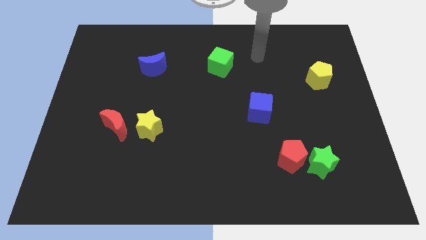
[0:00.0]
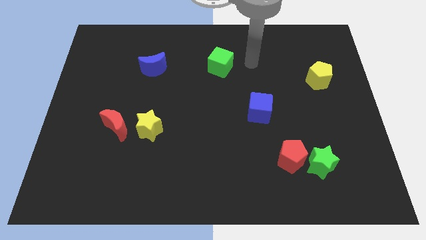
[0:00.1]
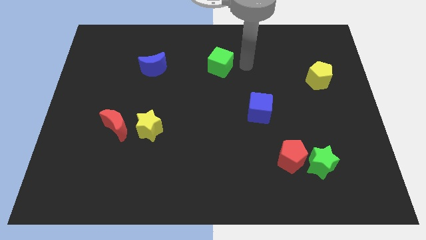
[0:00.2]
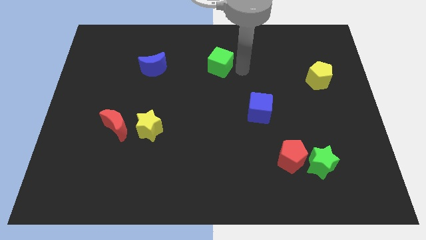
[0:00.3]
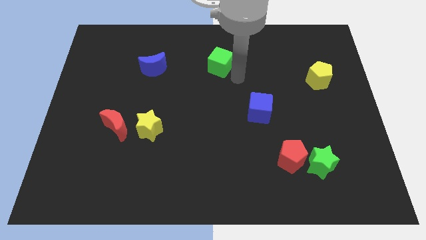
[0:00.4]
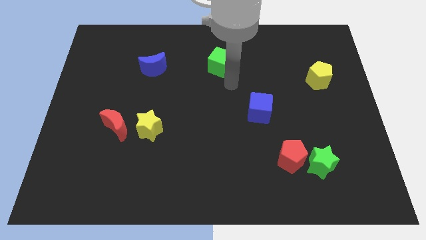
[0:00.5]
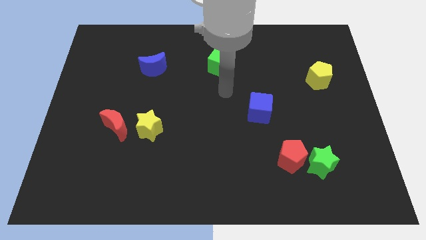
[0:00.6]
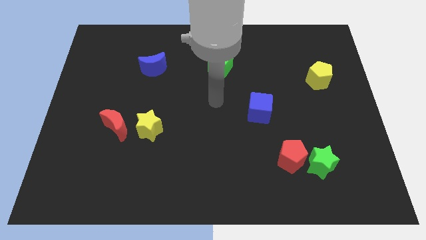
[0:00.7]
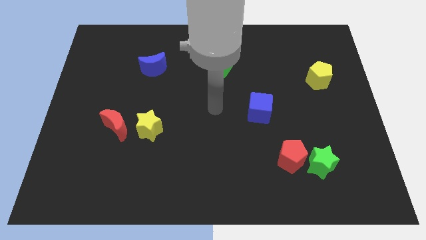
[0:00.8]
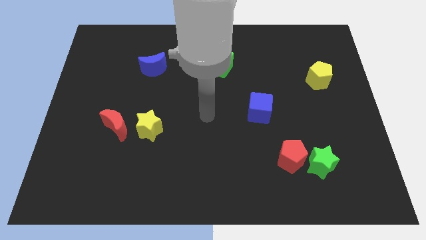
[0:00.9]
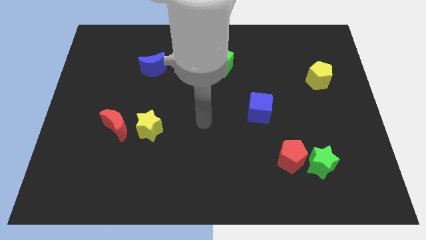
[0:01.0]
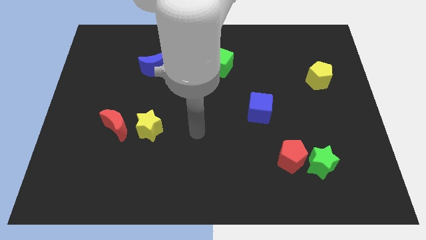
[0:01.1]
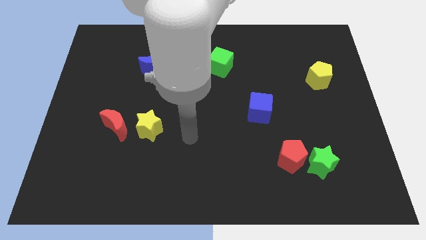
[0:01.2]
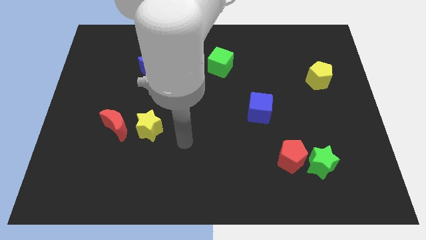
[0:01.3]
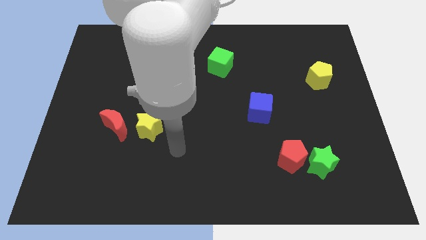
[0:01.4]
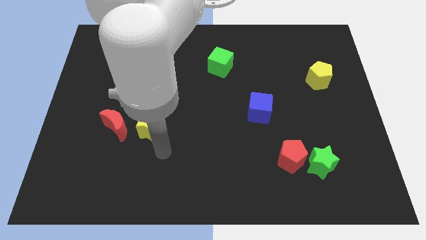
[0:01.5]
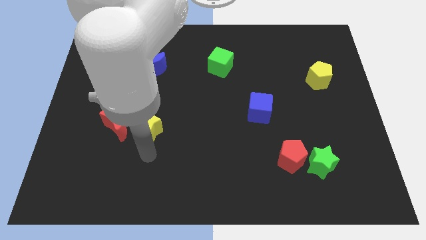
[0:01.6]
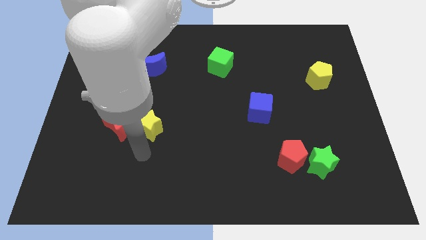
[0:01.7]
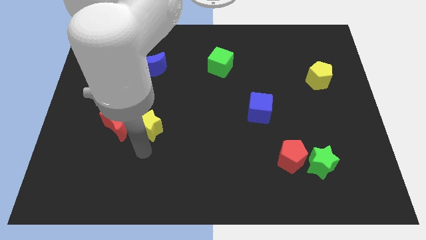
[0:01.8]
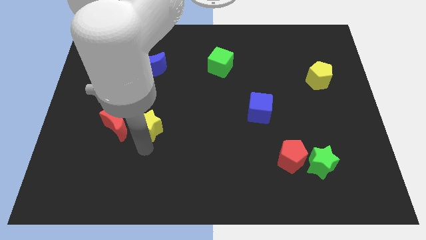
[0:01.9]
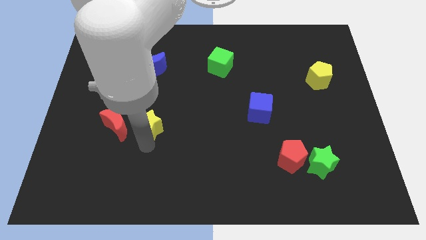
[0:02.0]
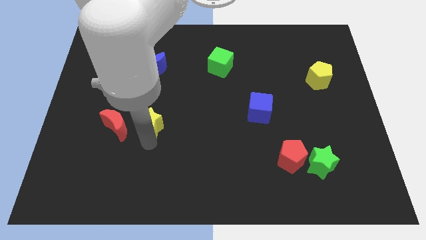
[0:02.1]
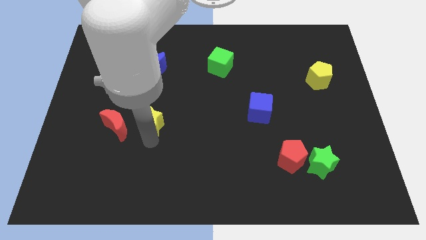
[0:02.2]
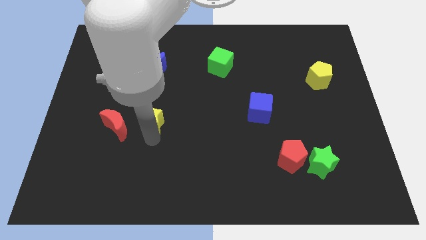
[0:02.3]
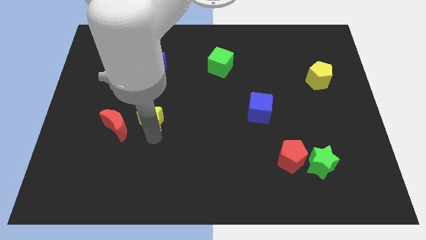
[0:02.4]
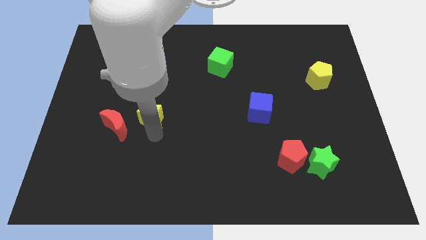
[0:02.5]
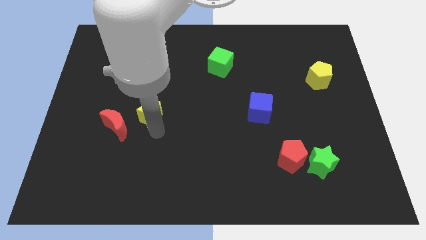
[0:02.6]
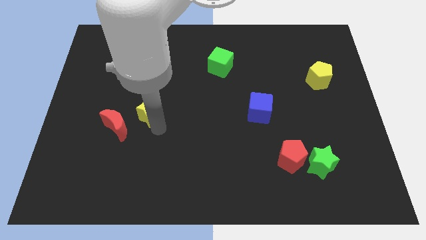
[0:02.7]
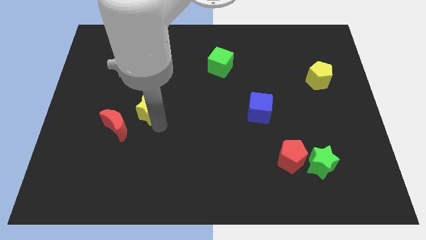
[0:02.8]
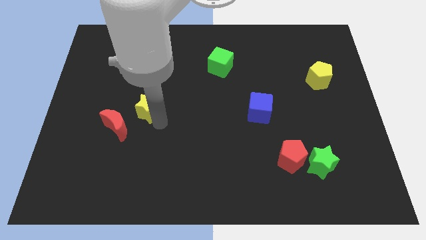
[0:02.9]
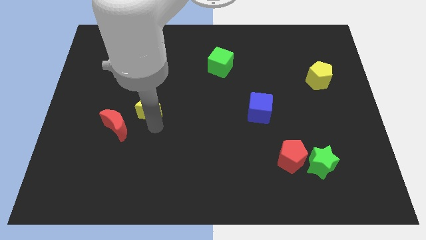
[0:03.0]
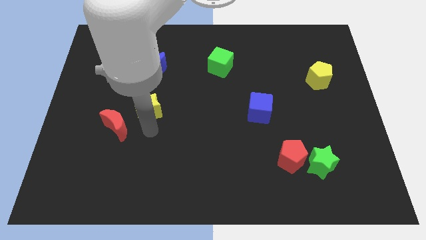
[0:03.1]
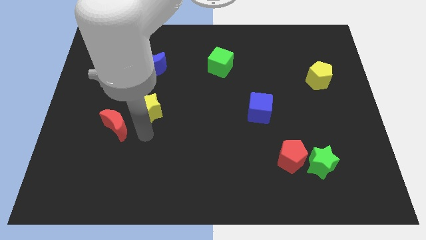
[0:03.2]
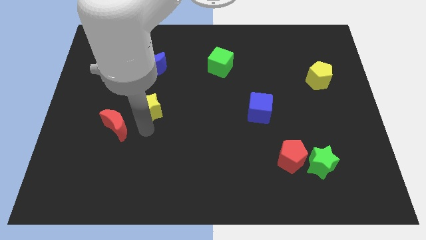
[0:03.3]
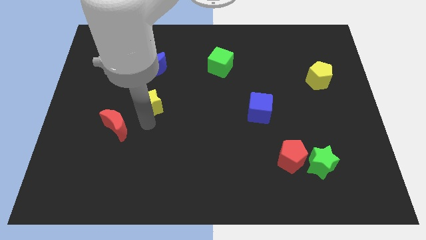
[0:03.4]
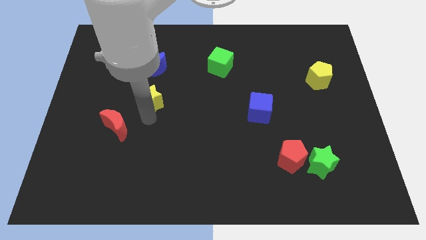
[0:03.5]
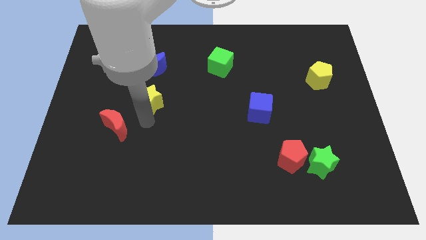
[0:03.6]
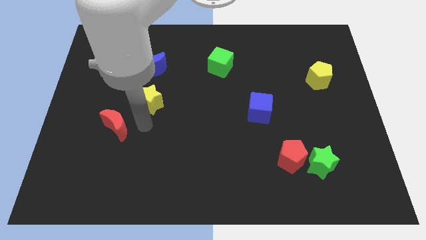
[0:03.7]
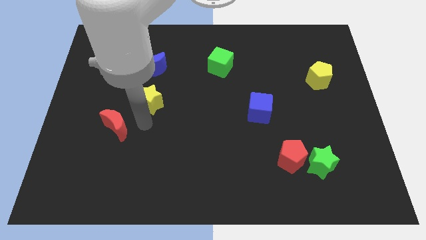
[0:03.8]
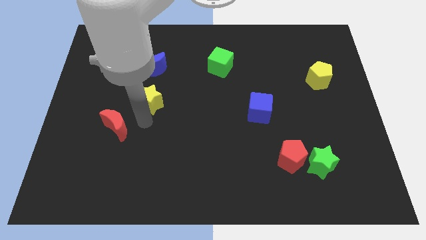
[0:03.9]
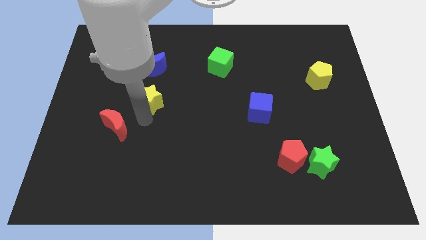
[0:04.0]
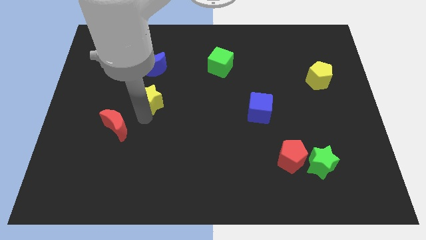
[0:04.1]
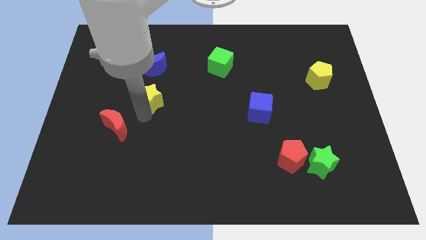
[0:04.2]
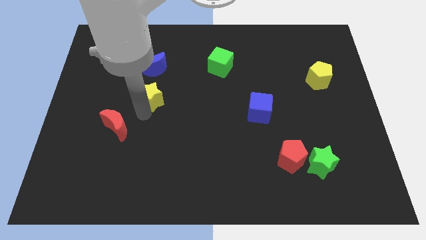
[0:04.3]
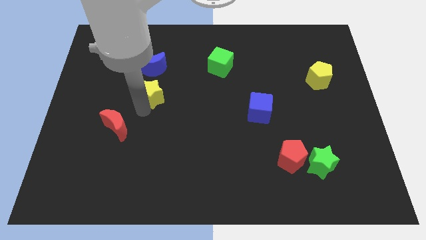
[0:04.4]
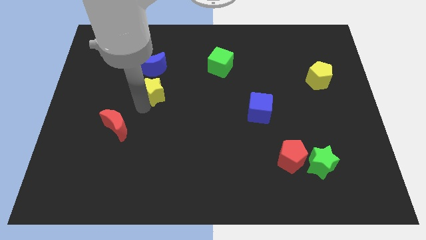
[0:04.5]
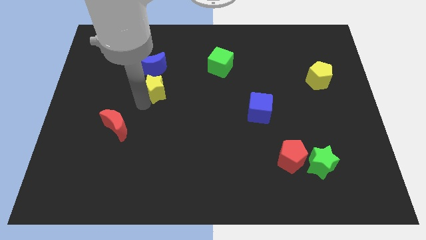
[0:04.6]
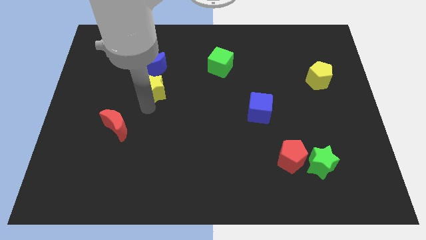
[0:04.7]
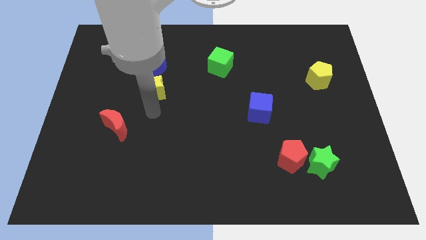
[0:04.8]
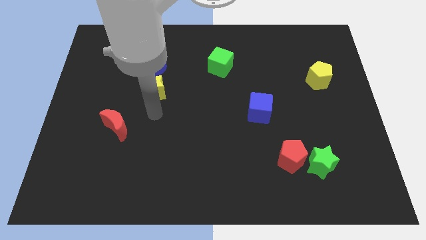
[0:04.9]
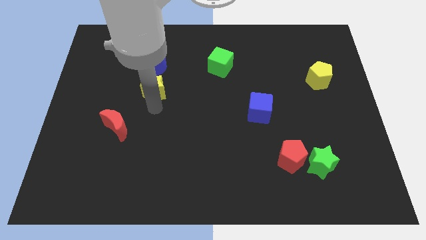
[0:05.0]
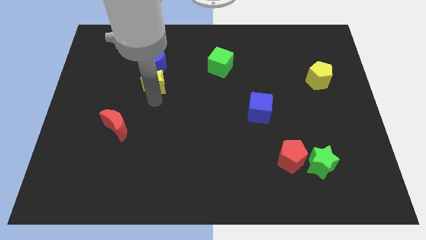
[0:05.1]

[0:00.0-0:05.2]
slide the yellow star to the blue moon

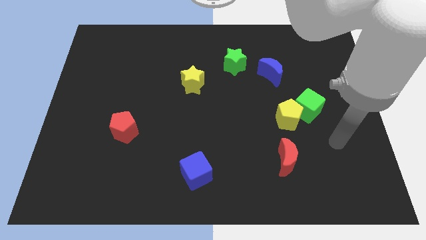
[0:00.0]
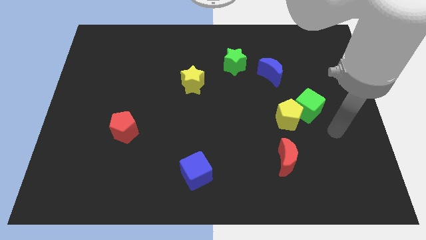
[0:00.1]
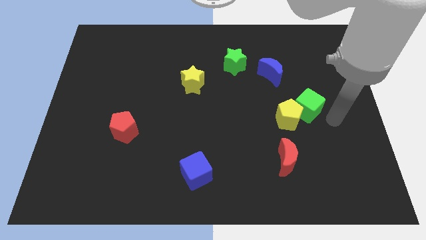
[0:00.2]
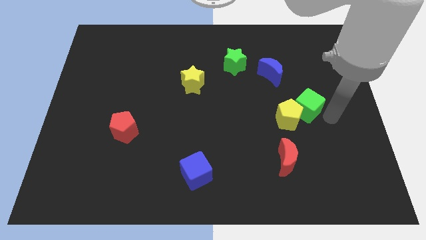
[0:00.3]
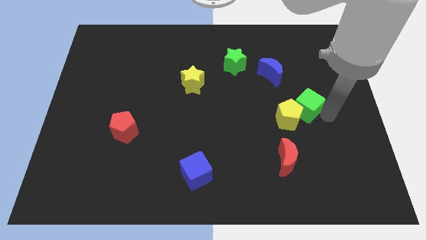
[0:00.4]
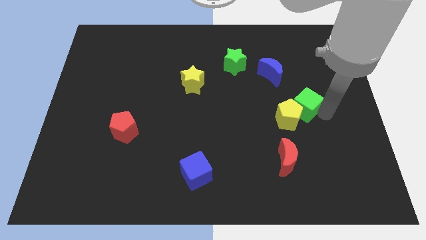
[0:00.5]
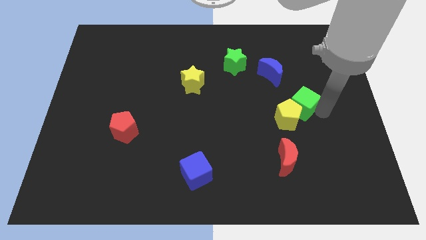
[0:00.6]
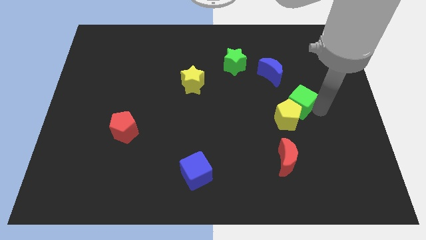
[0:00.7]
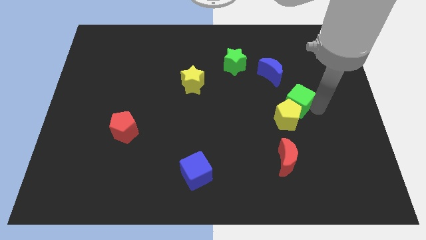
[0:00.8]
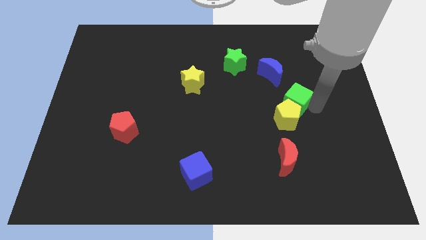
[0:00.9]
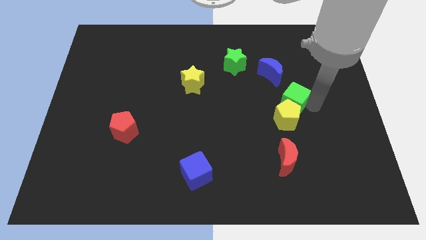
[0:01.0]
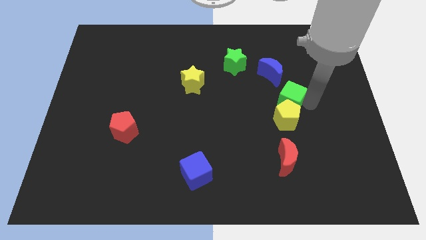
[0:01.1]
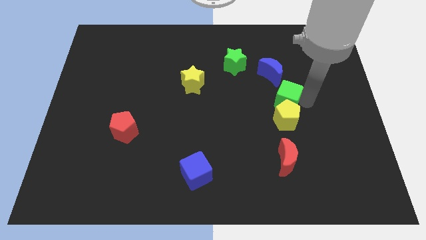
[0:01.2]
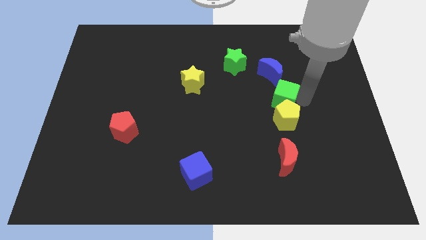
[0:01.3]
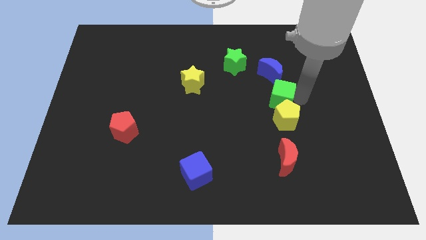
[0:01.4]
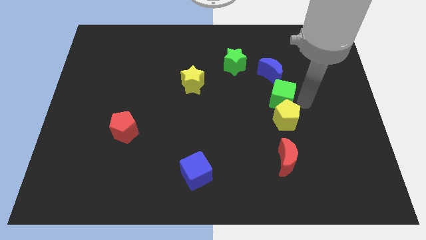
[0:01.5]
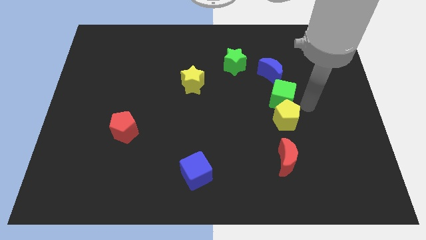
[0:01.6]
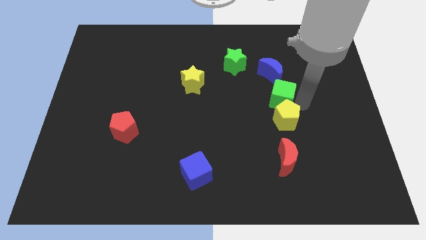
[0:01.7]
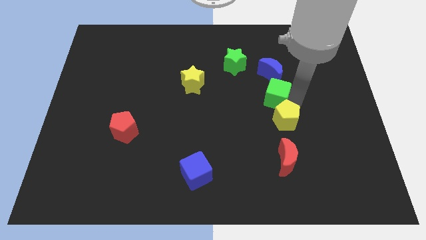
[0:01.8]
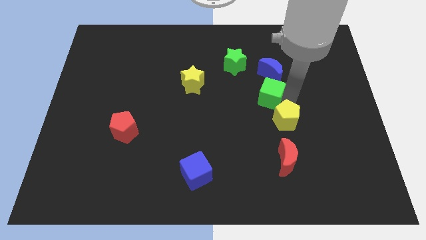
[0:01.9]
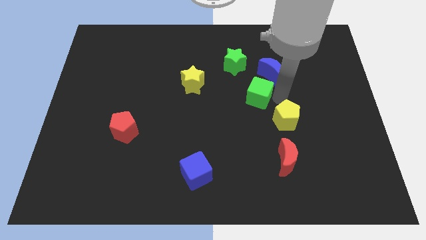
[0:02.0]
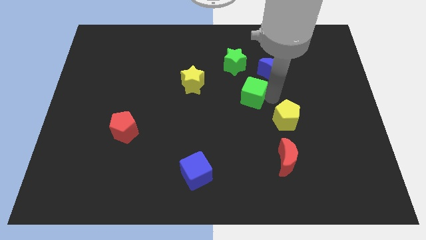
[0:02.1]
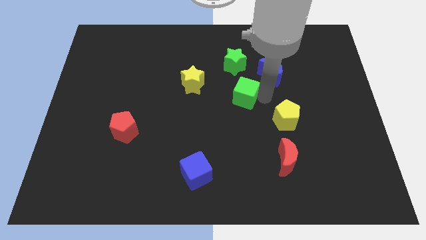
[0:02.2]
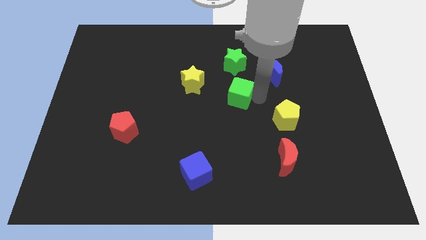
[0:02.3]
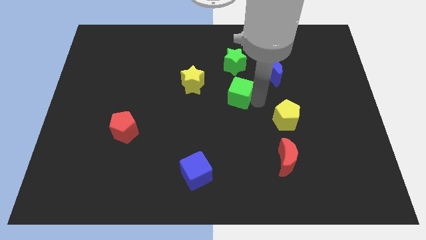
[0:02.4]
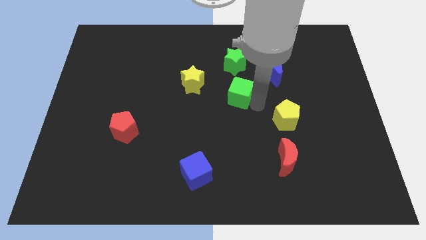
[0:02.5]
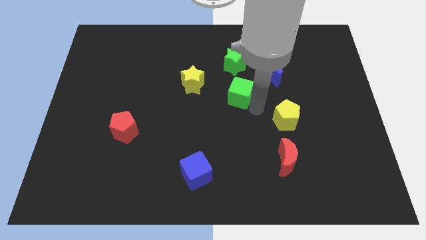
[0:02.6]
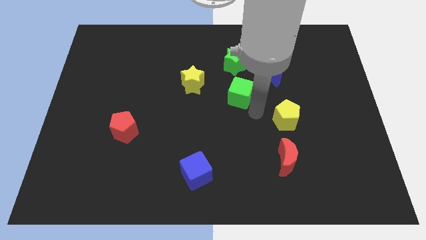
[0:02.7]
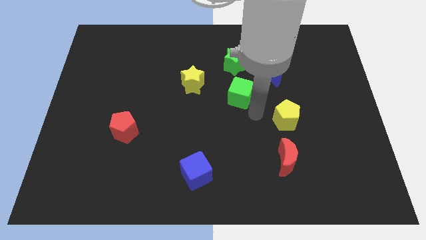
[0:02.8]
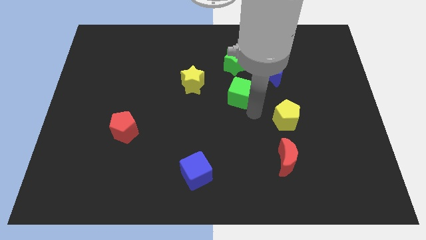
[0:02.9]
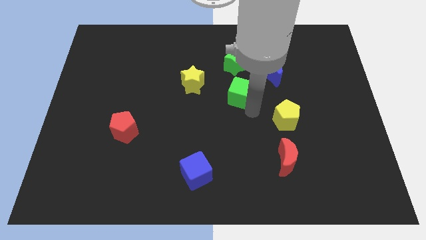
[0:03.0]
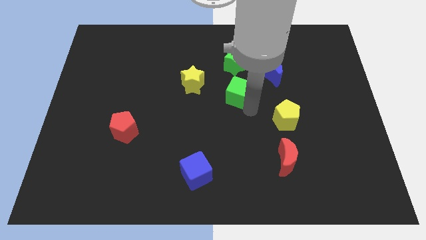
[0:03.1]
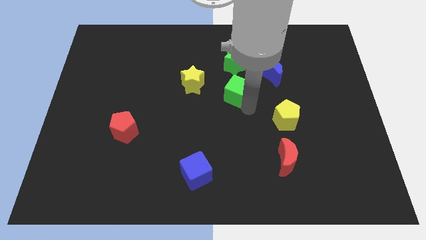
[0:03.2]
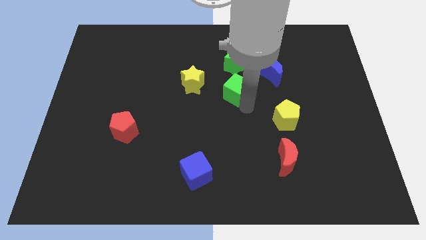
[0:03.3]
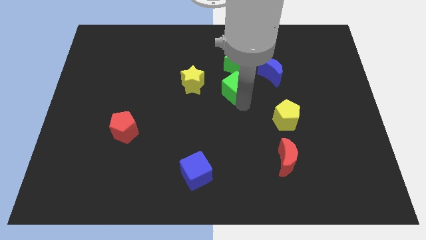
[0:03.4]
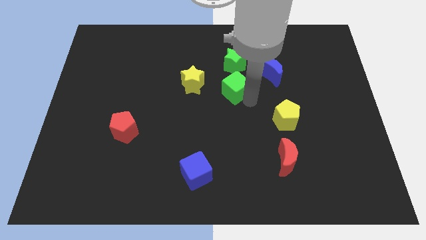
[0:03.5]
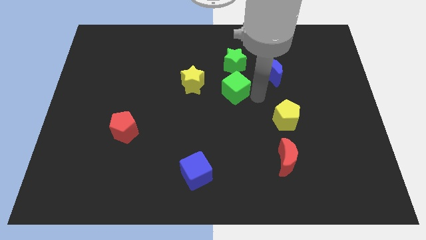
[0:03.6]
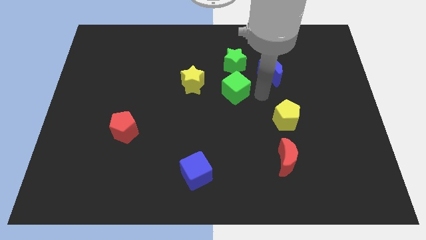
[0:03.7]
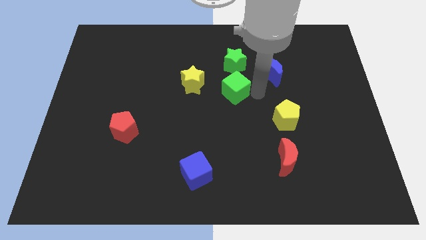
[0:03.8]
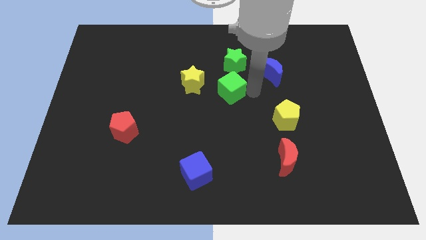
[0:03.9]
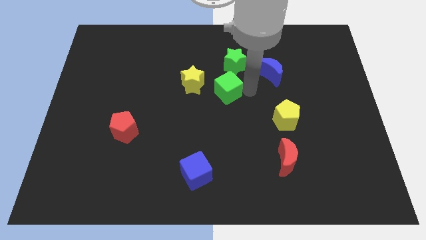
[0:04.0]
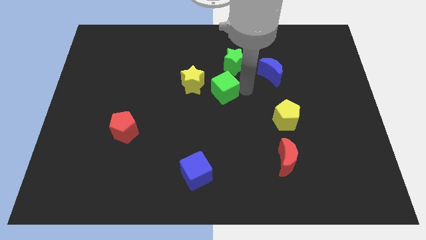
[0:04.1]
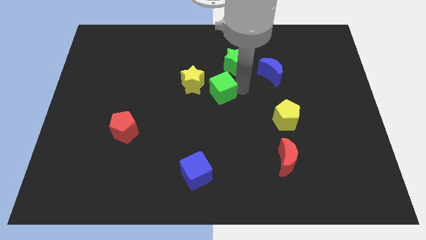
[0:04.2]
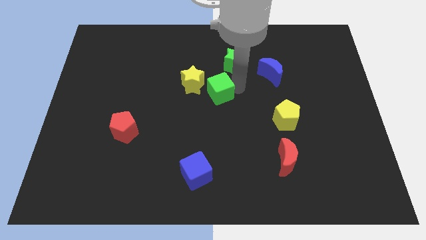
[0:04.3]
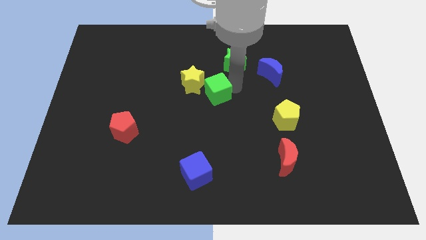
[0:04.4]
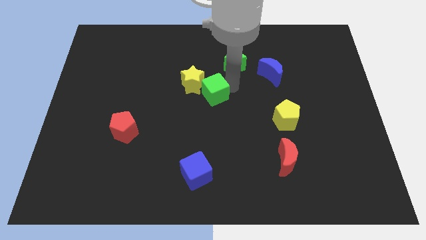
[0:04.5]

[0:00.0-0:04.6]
push the green cube close to the yellow star
